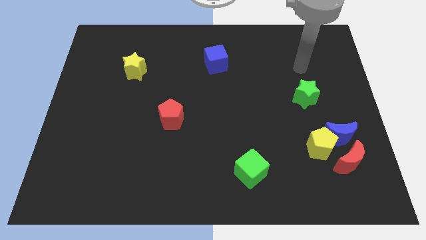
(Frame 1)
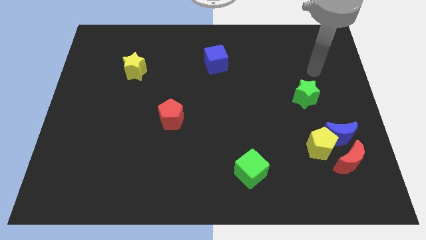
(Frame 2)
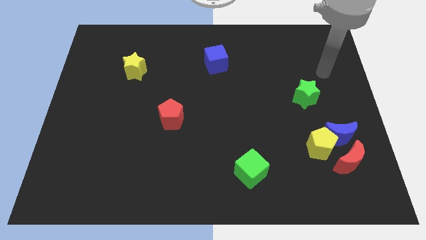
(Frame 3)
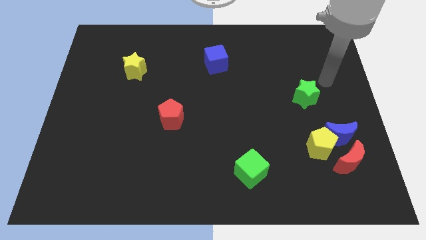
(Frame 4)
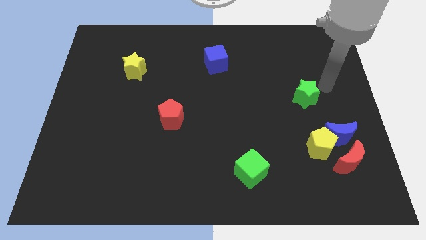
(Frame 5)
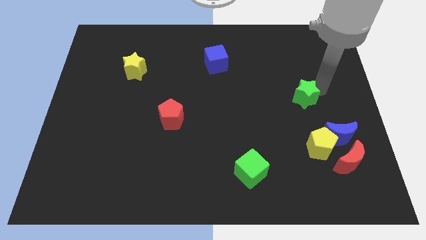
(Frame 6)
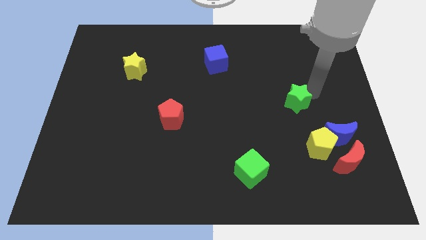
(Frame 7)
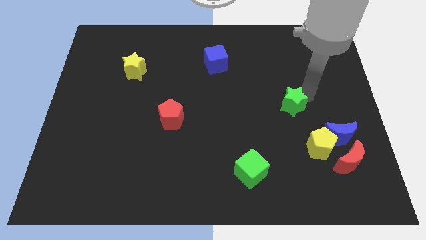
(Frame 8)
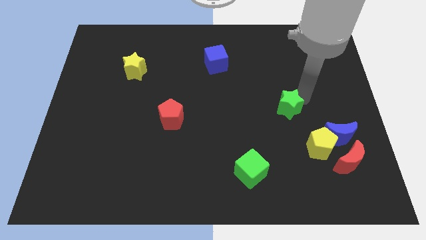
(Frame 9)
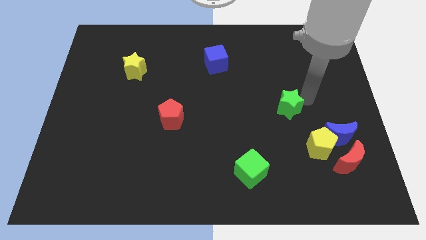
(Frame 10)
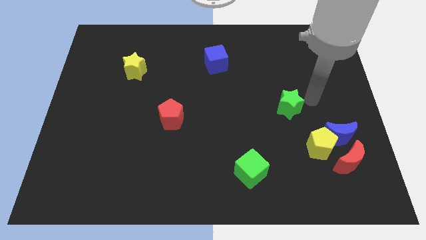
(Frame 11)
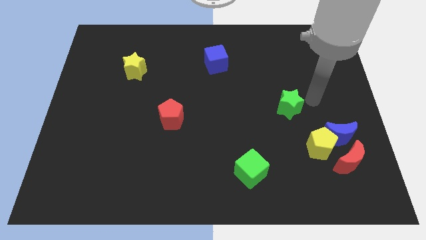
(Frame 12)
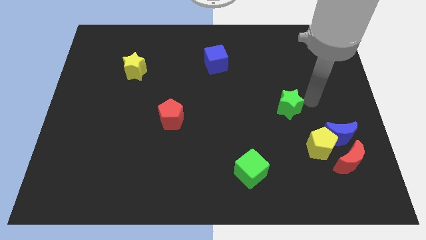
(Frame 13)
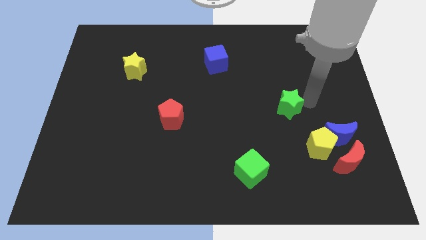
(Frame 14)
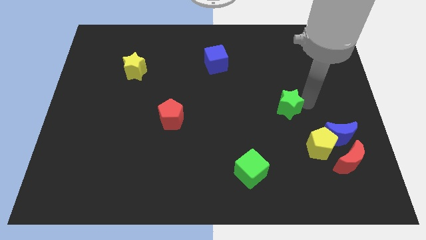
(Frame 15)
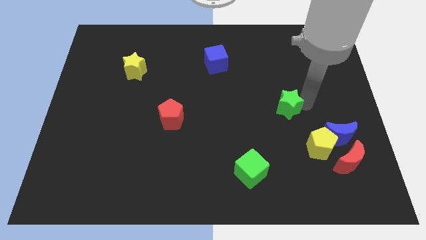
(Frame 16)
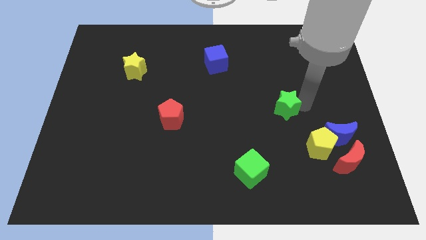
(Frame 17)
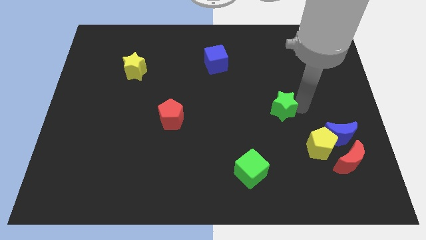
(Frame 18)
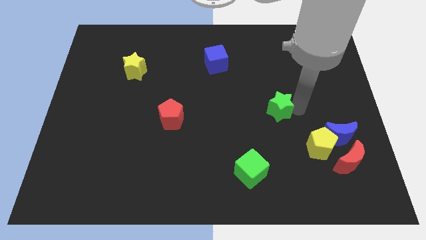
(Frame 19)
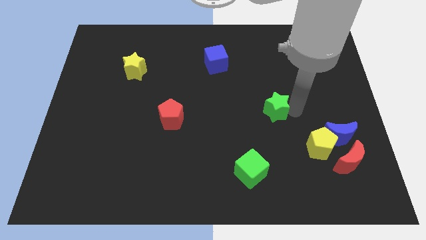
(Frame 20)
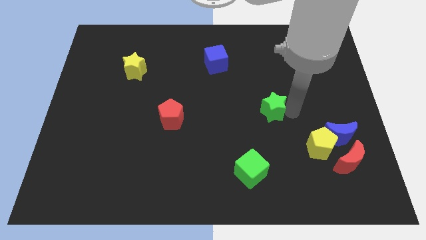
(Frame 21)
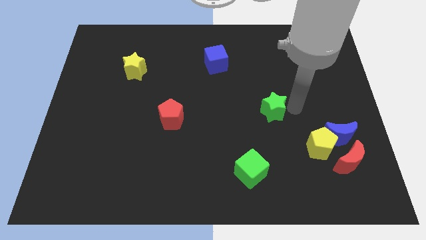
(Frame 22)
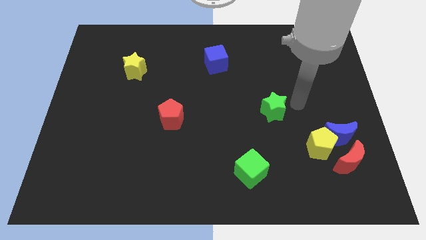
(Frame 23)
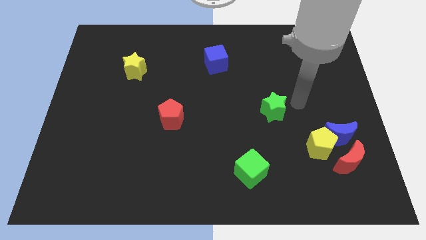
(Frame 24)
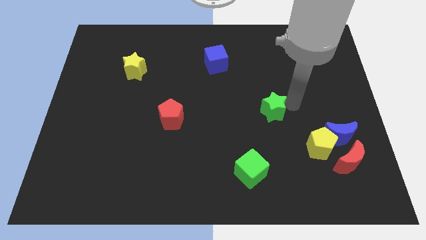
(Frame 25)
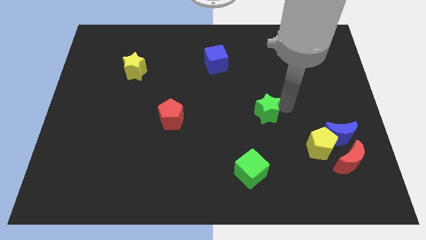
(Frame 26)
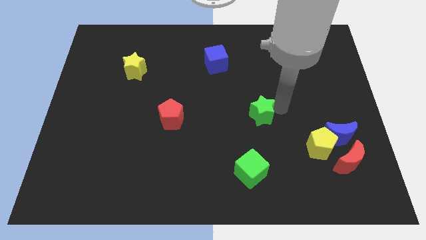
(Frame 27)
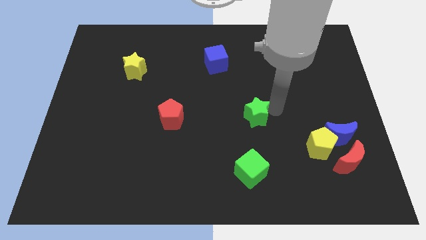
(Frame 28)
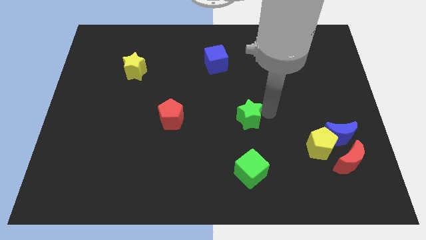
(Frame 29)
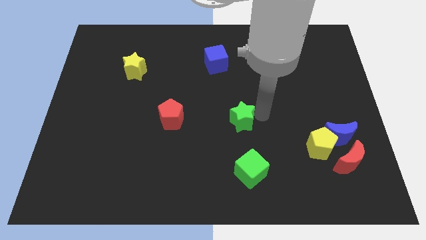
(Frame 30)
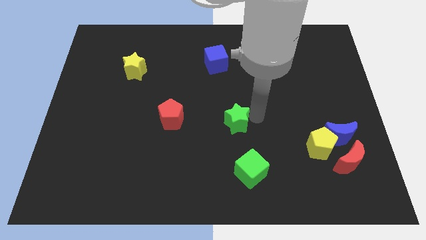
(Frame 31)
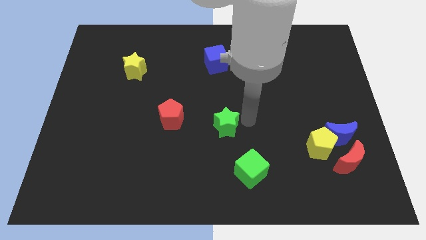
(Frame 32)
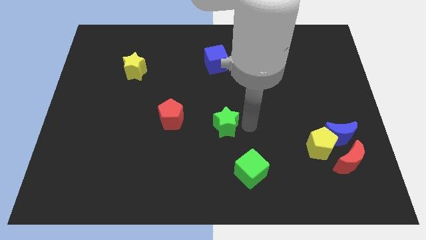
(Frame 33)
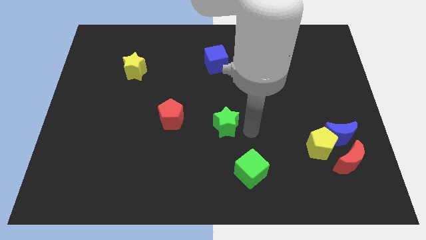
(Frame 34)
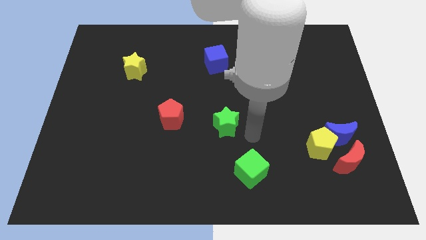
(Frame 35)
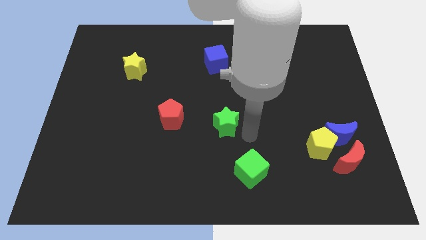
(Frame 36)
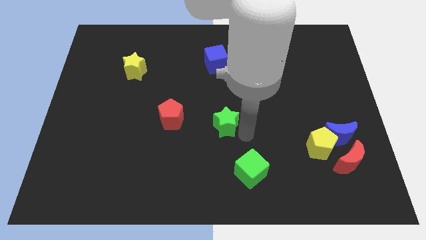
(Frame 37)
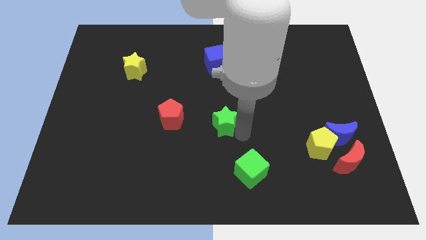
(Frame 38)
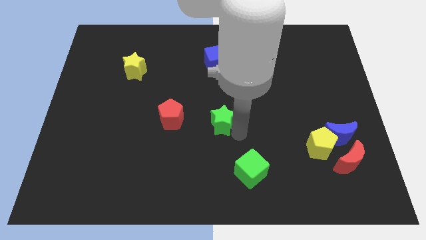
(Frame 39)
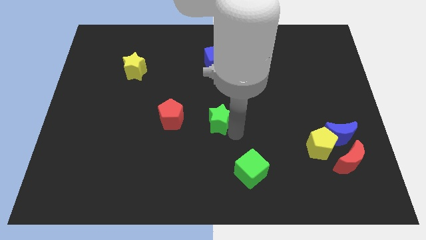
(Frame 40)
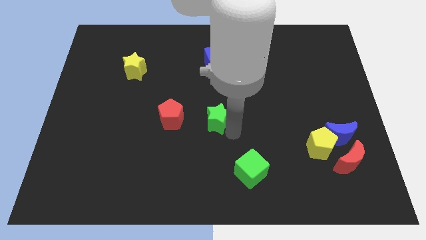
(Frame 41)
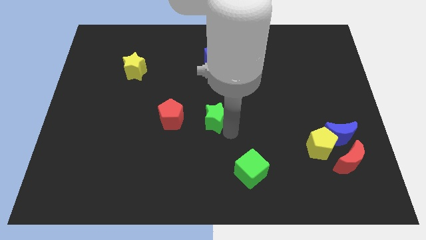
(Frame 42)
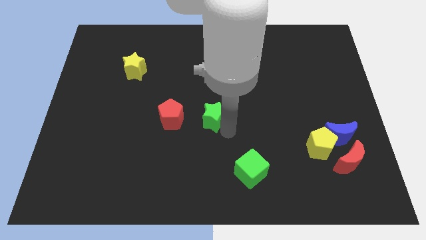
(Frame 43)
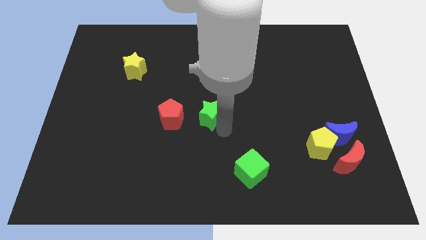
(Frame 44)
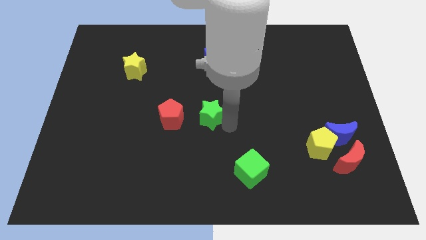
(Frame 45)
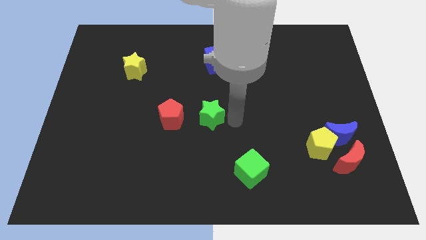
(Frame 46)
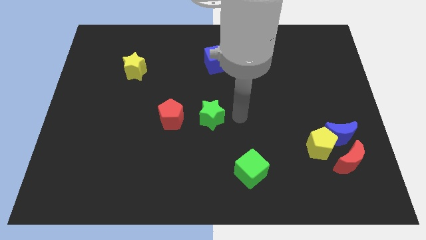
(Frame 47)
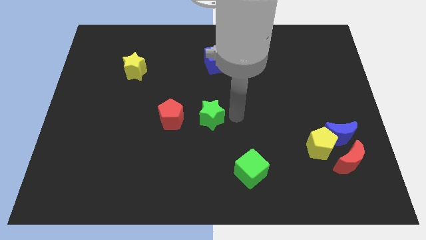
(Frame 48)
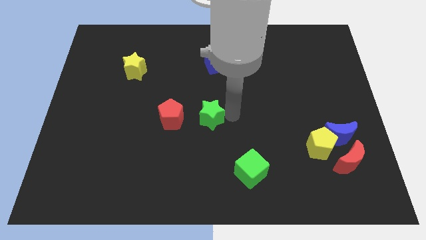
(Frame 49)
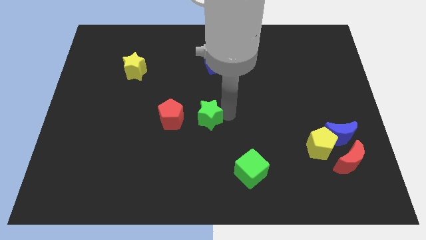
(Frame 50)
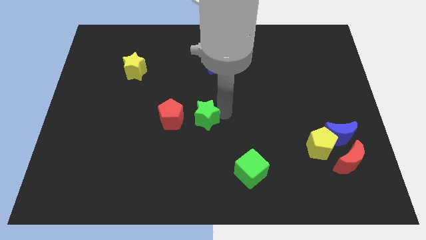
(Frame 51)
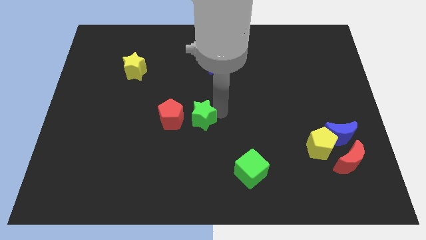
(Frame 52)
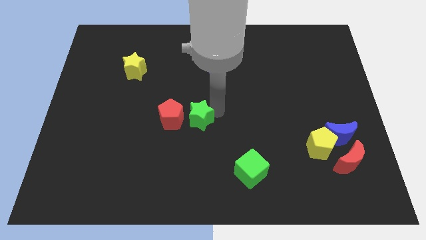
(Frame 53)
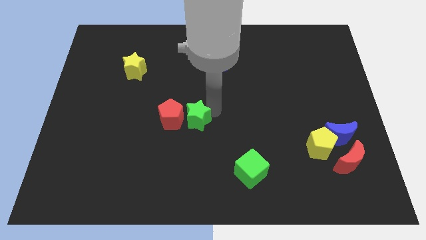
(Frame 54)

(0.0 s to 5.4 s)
move the green star to the red pentagon

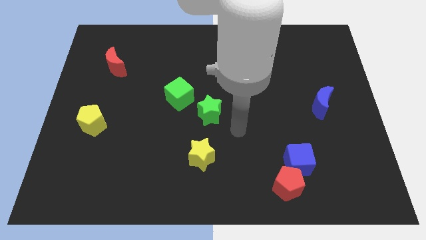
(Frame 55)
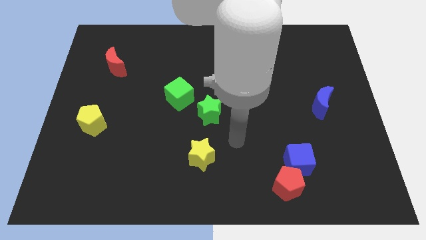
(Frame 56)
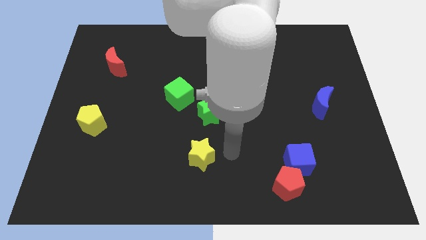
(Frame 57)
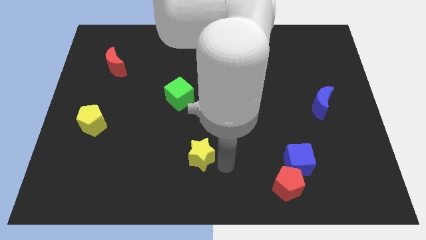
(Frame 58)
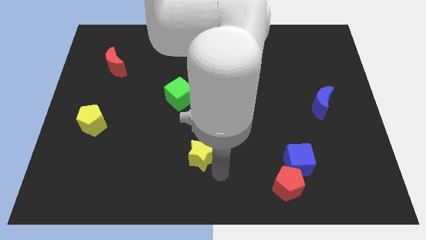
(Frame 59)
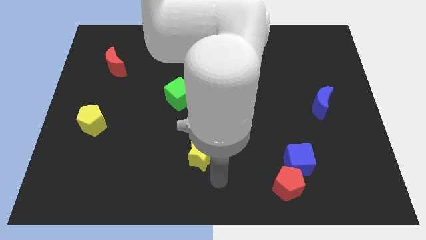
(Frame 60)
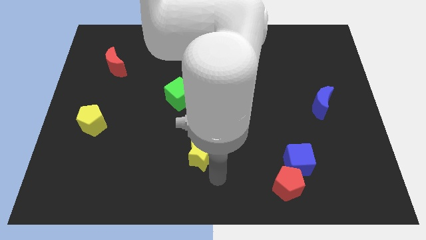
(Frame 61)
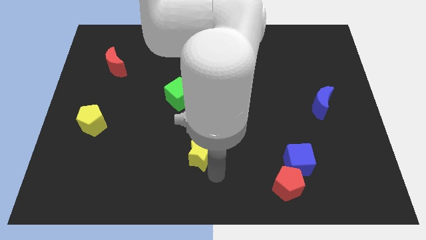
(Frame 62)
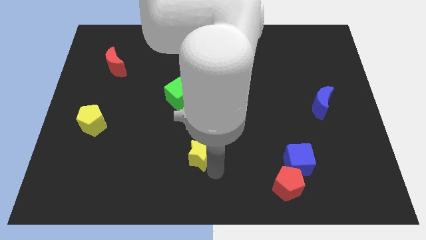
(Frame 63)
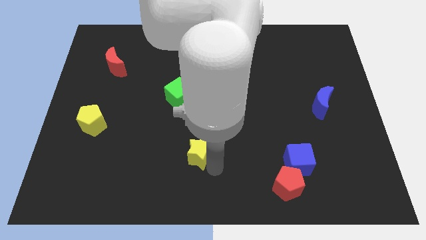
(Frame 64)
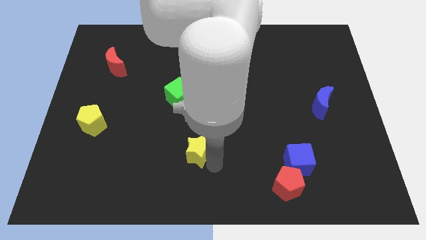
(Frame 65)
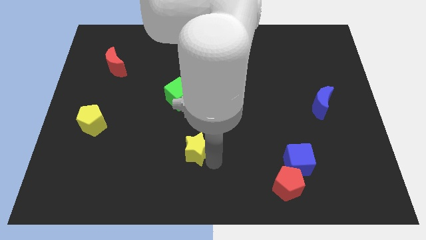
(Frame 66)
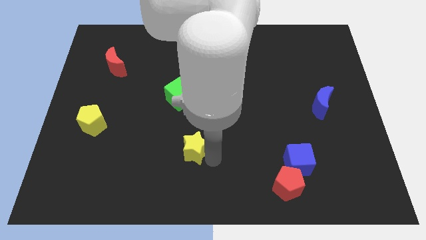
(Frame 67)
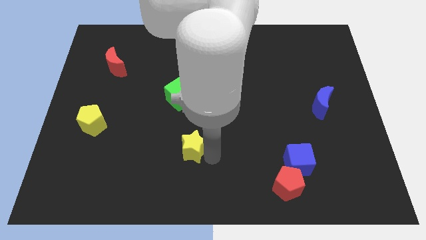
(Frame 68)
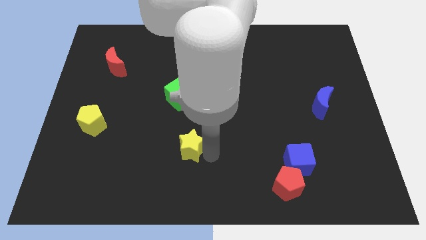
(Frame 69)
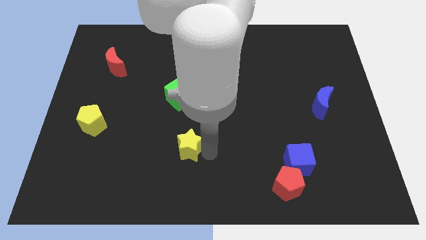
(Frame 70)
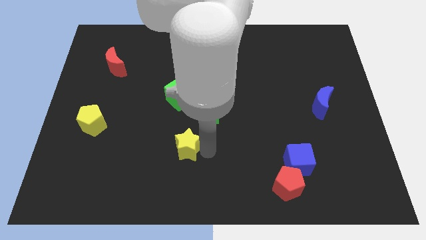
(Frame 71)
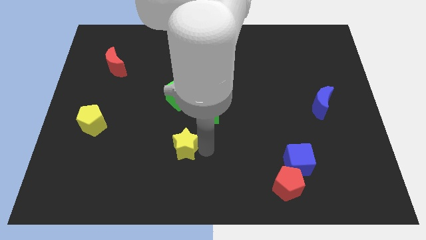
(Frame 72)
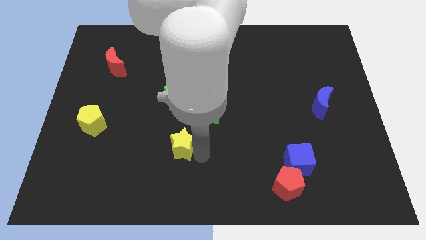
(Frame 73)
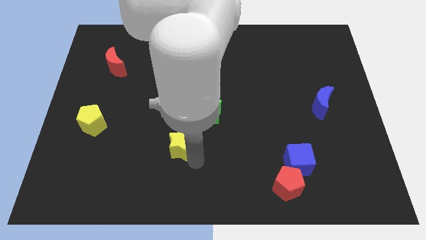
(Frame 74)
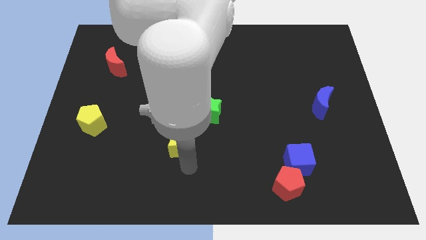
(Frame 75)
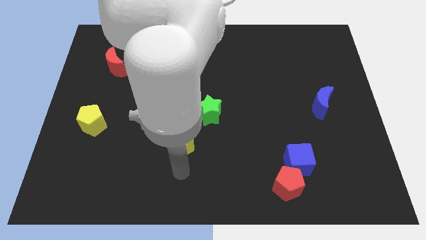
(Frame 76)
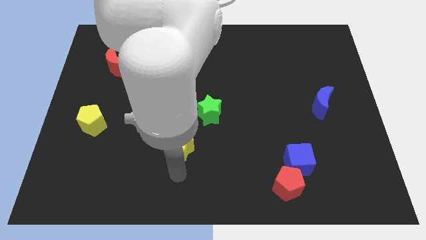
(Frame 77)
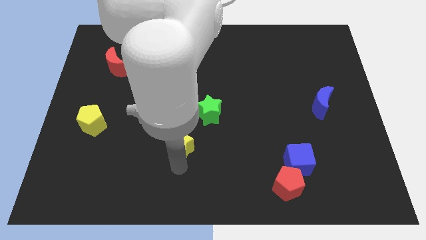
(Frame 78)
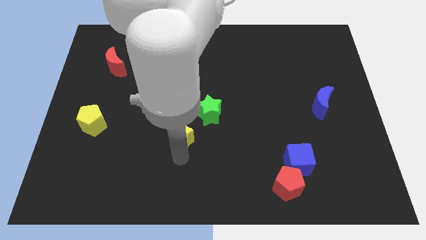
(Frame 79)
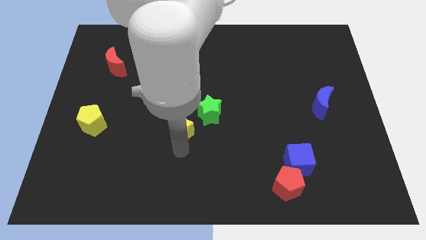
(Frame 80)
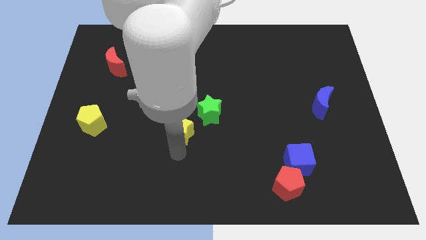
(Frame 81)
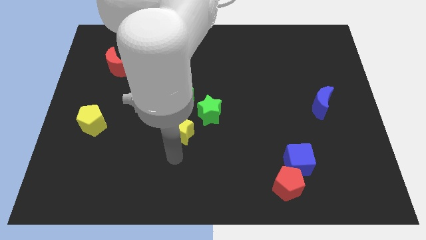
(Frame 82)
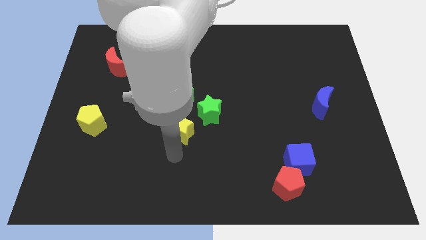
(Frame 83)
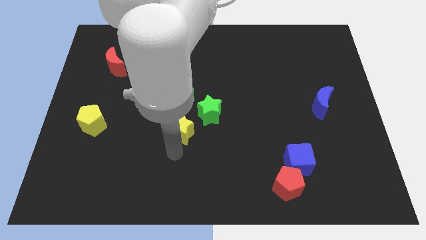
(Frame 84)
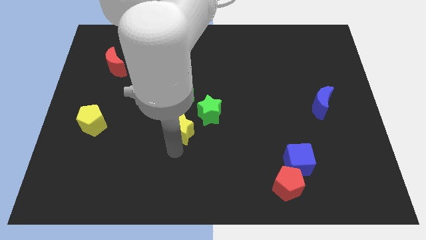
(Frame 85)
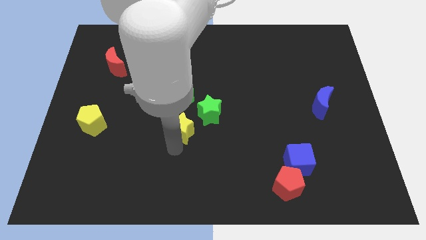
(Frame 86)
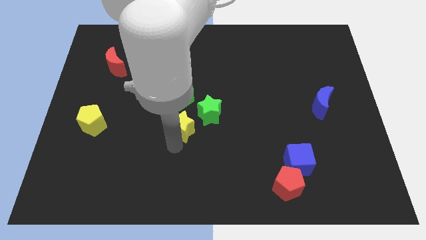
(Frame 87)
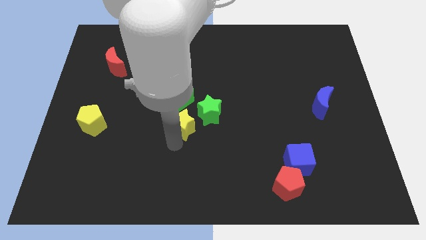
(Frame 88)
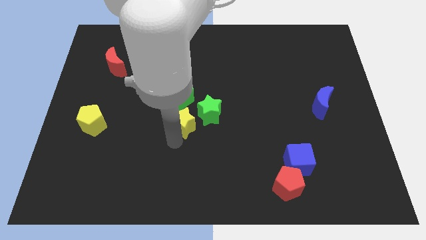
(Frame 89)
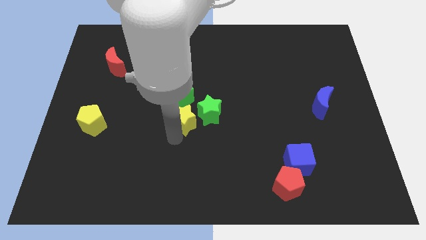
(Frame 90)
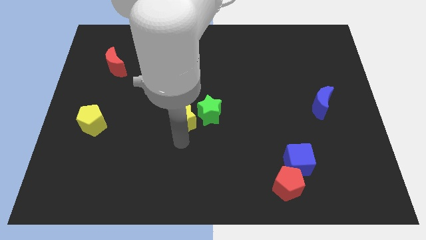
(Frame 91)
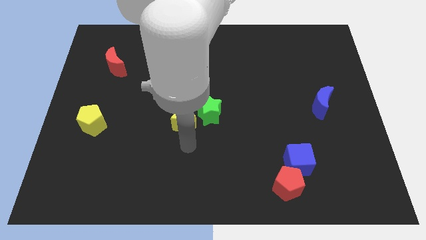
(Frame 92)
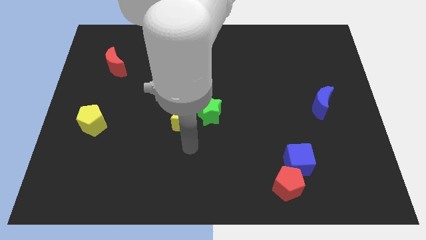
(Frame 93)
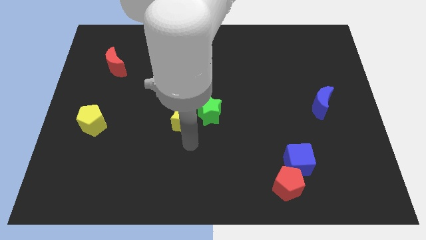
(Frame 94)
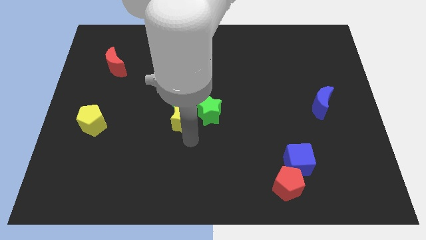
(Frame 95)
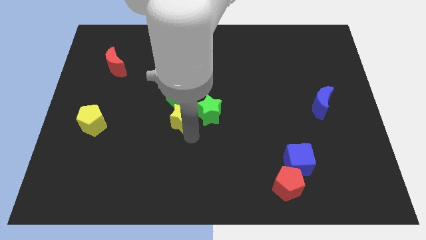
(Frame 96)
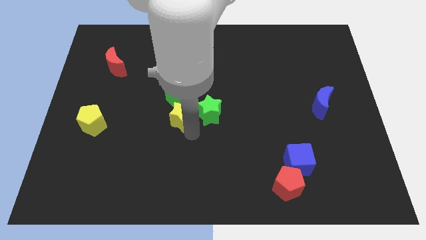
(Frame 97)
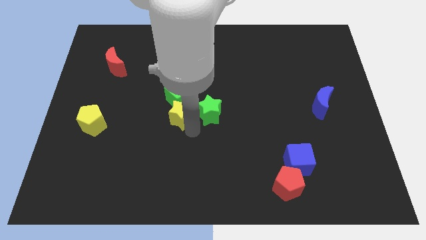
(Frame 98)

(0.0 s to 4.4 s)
put the yellow star close to the green cube
